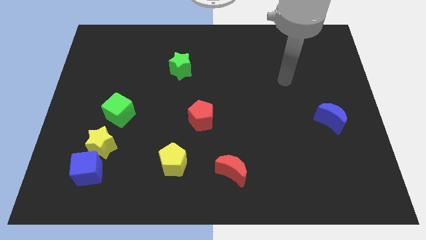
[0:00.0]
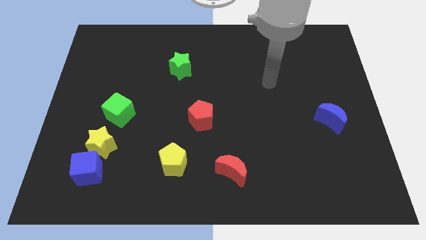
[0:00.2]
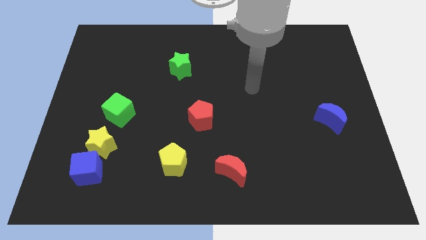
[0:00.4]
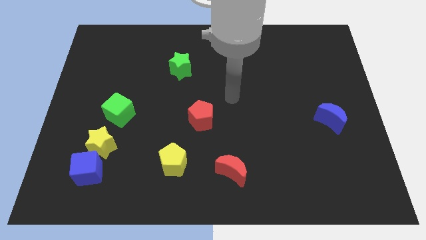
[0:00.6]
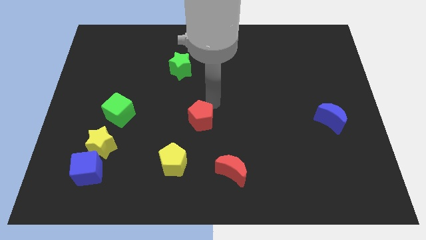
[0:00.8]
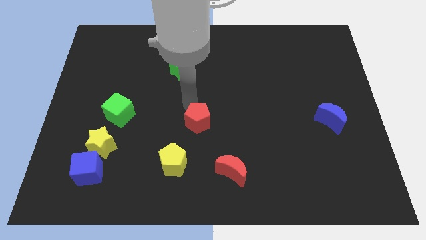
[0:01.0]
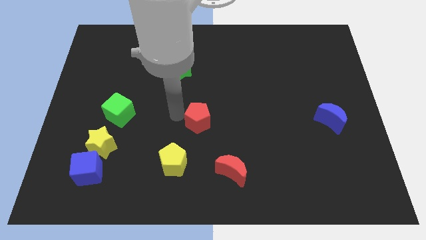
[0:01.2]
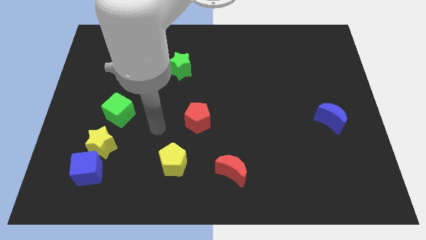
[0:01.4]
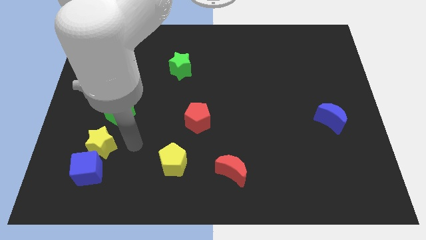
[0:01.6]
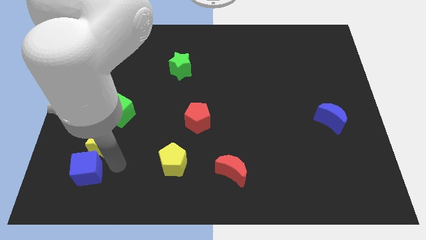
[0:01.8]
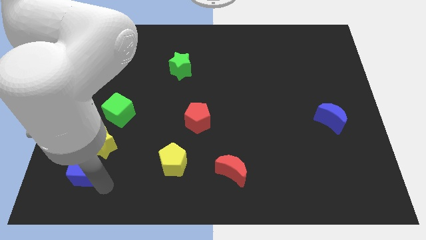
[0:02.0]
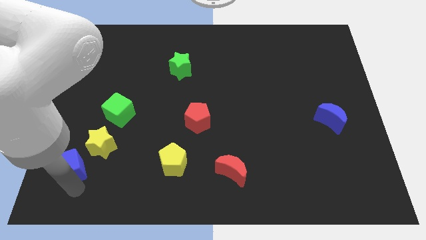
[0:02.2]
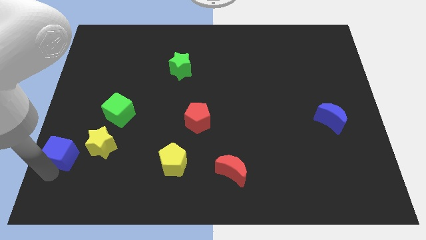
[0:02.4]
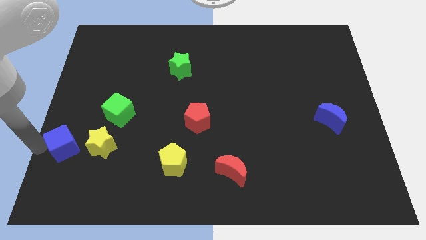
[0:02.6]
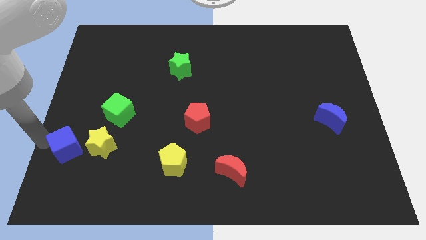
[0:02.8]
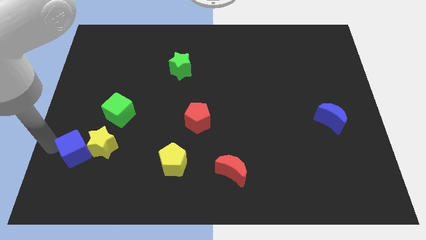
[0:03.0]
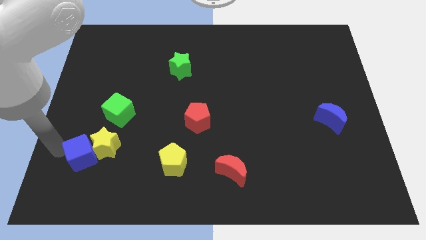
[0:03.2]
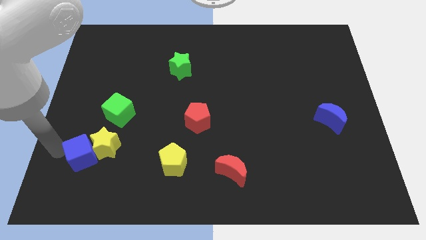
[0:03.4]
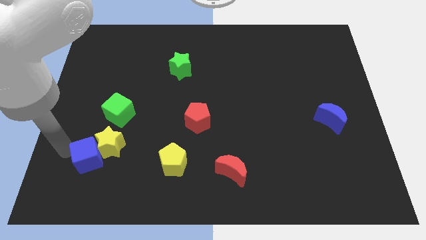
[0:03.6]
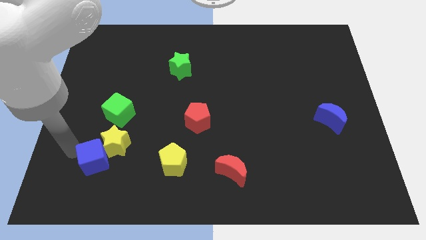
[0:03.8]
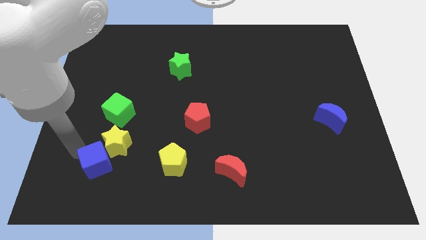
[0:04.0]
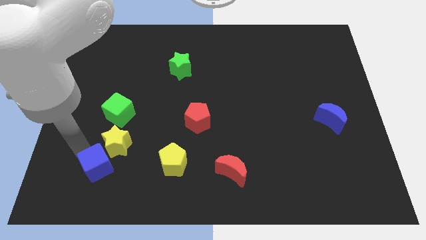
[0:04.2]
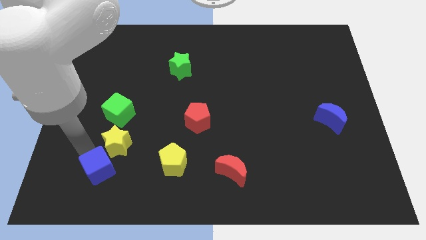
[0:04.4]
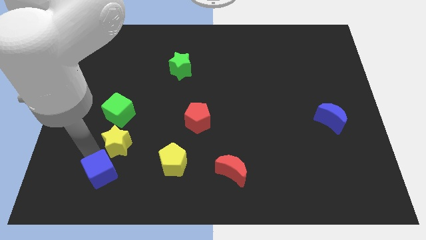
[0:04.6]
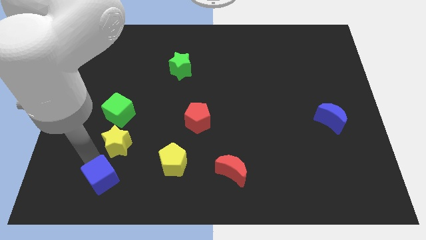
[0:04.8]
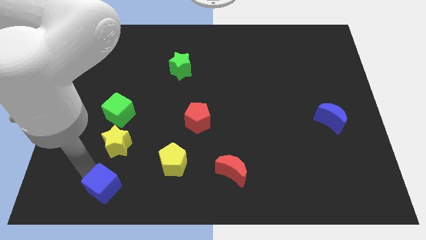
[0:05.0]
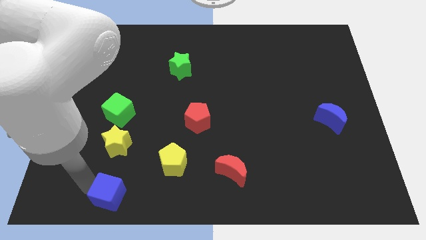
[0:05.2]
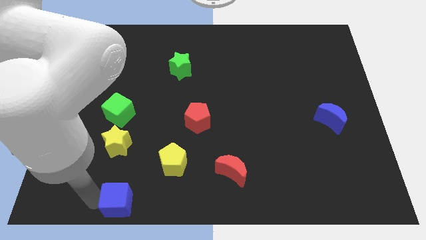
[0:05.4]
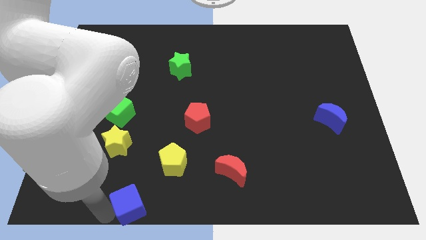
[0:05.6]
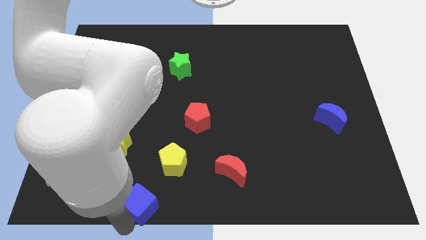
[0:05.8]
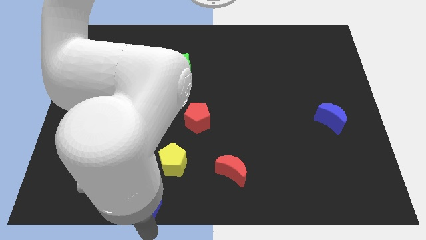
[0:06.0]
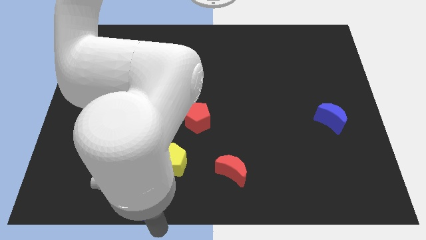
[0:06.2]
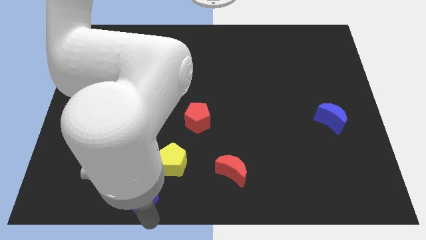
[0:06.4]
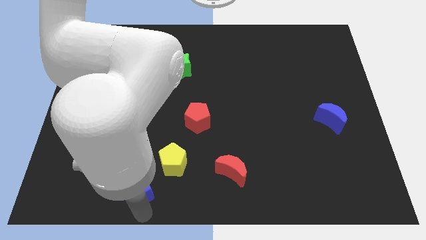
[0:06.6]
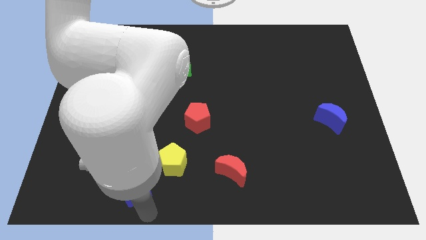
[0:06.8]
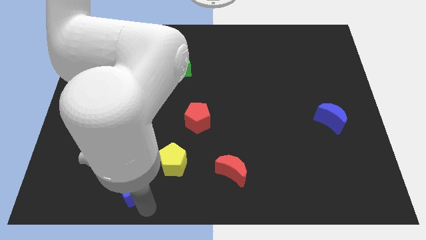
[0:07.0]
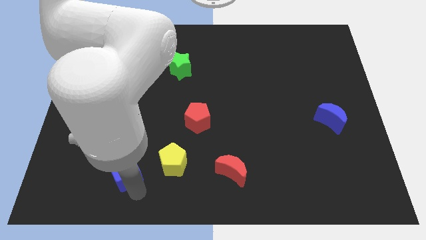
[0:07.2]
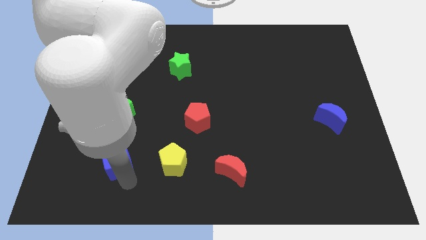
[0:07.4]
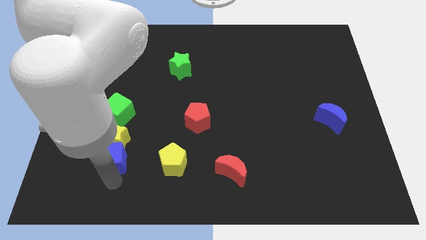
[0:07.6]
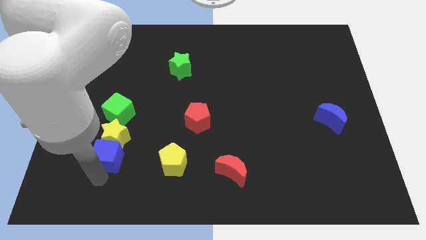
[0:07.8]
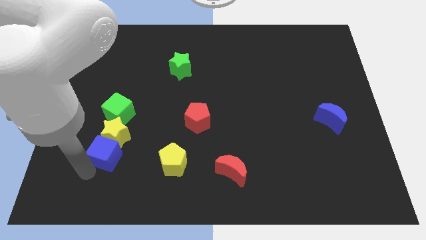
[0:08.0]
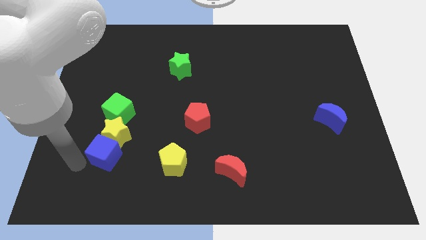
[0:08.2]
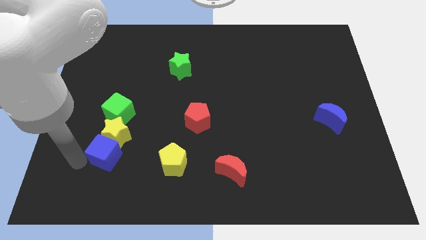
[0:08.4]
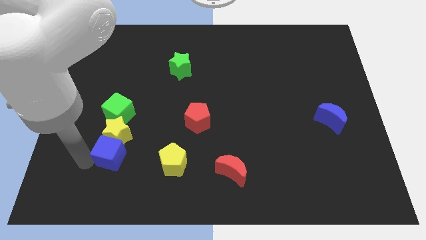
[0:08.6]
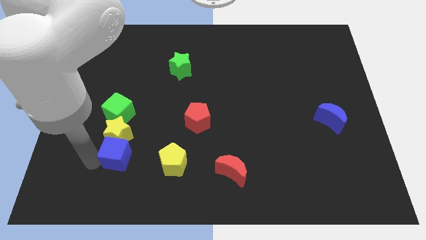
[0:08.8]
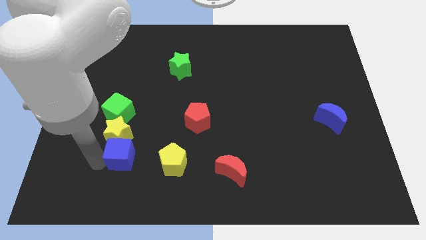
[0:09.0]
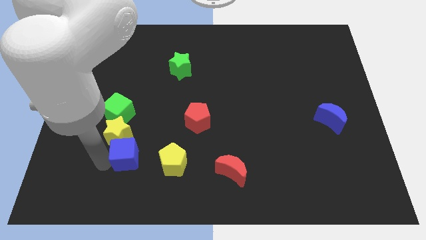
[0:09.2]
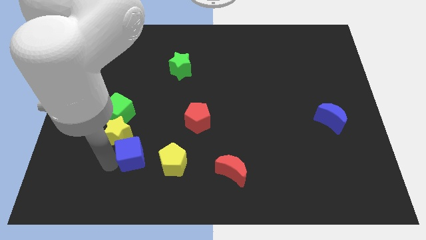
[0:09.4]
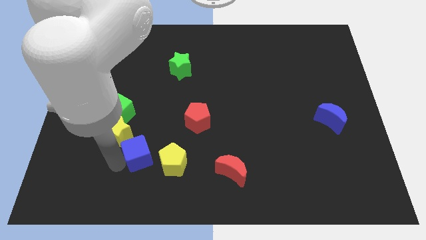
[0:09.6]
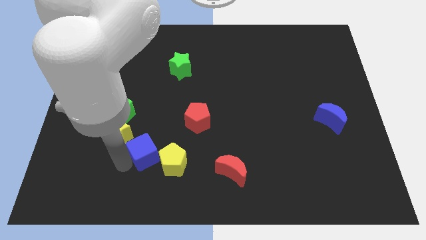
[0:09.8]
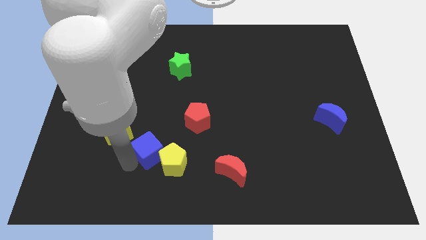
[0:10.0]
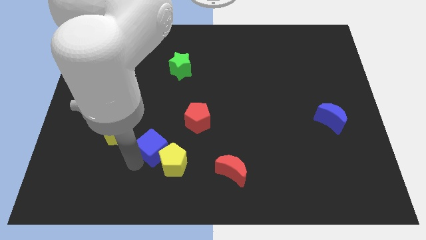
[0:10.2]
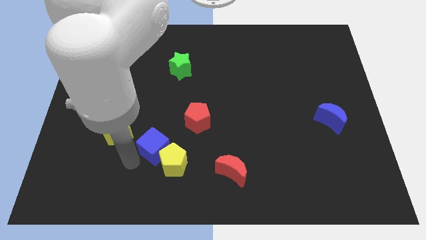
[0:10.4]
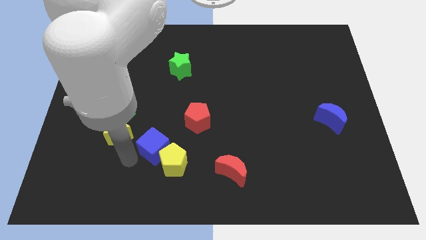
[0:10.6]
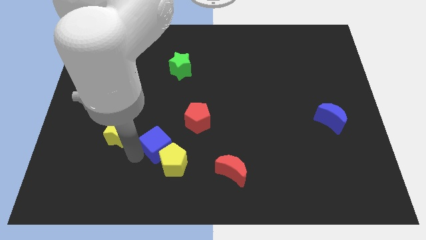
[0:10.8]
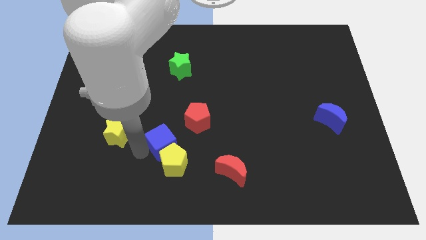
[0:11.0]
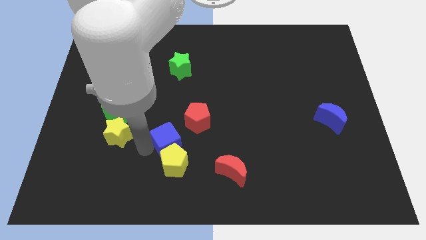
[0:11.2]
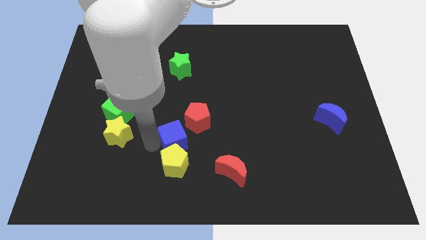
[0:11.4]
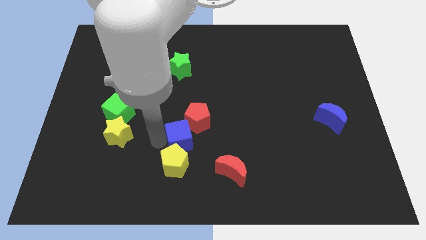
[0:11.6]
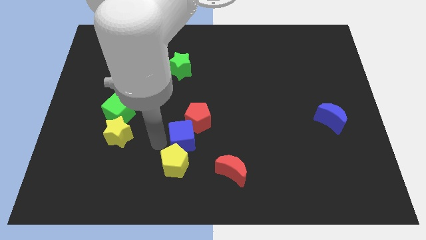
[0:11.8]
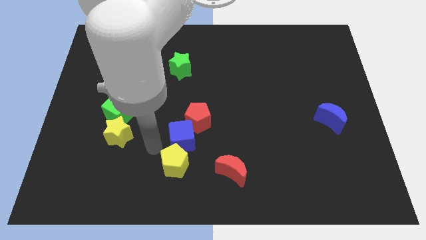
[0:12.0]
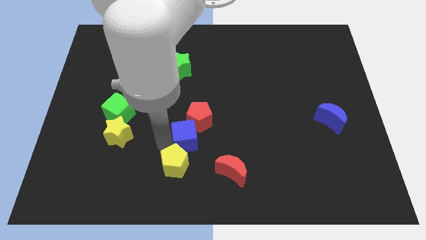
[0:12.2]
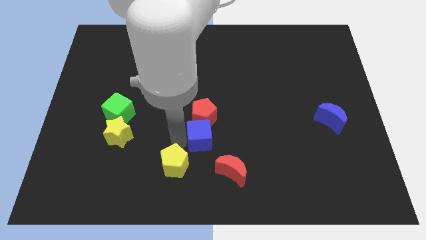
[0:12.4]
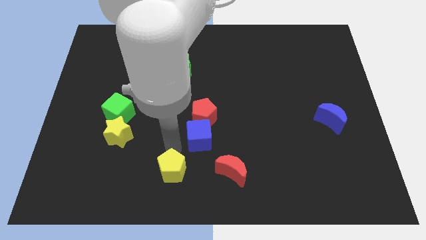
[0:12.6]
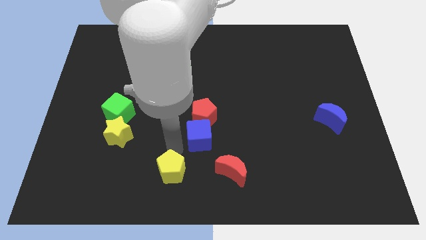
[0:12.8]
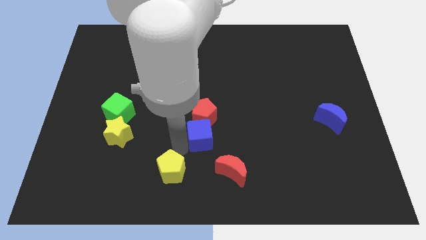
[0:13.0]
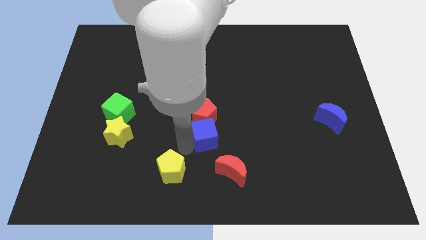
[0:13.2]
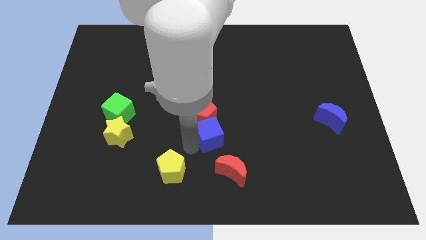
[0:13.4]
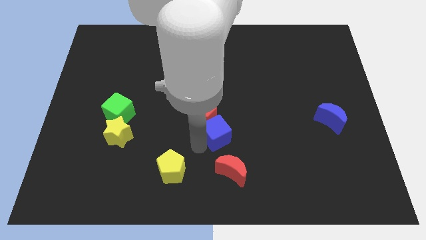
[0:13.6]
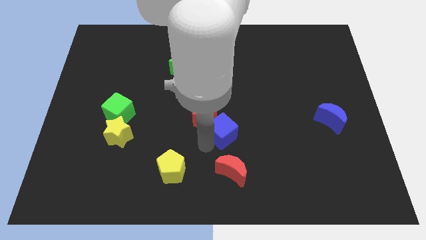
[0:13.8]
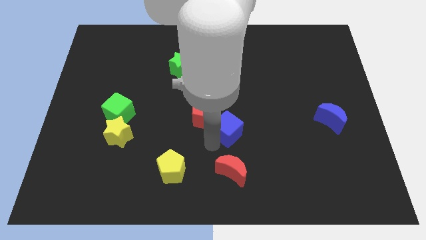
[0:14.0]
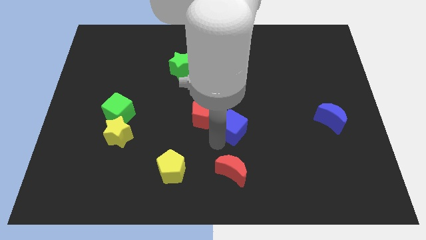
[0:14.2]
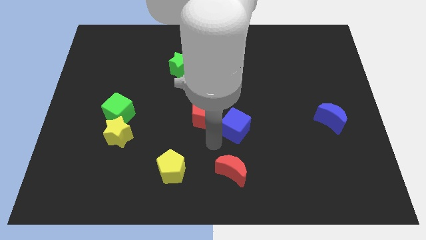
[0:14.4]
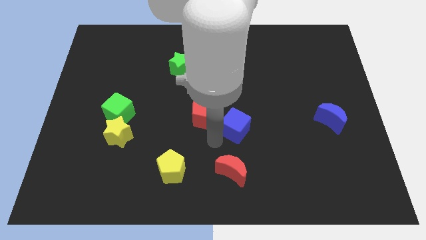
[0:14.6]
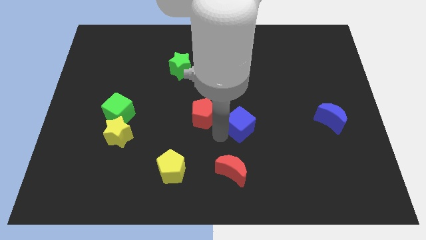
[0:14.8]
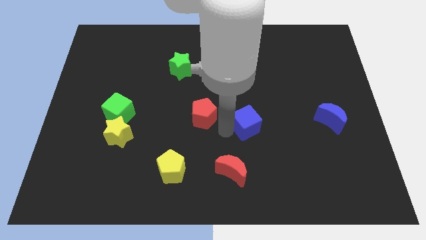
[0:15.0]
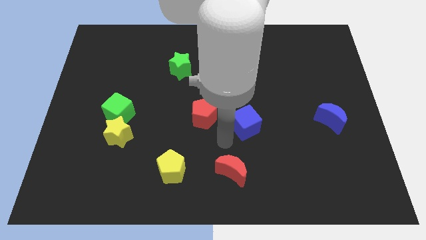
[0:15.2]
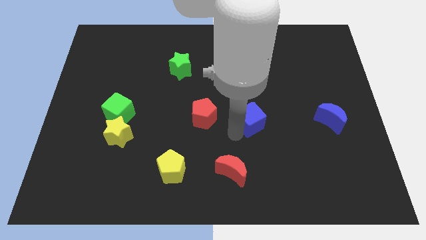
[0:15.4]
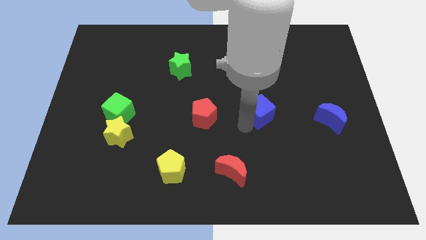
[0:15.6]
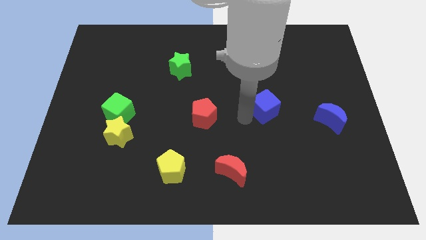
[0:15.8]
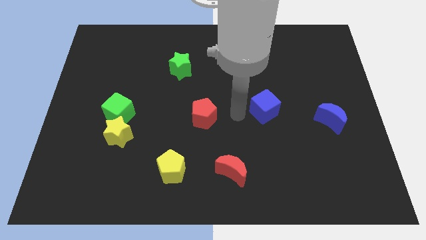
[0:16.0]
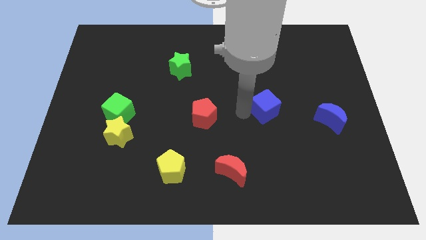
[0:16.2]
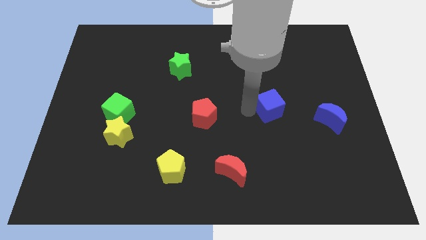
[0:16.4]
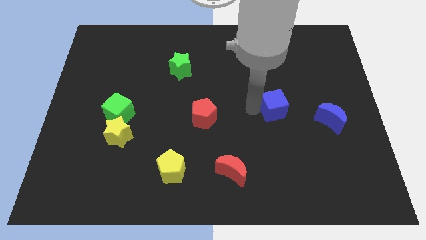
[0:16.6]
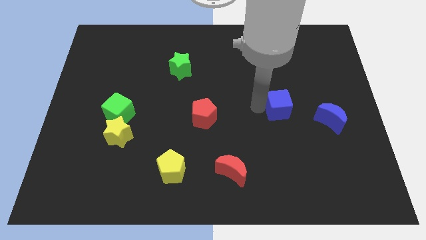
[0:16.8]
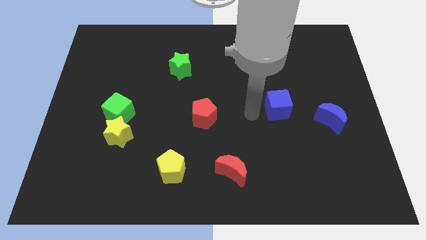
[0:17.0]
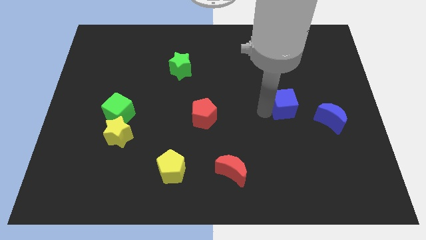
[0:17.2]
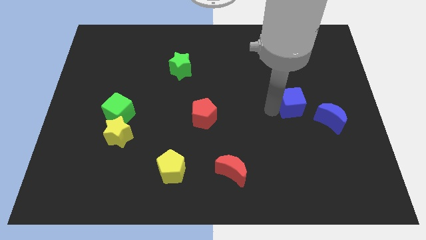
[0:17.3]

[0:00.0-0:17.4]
move the blue cube to the top left of the blue moon
